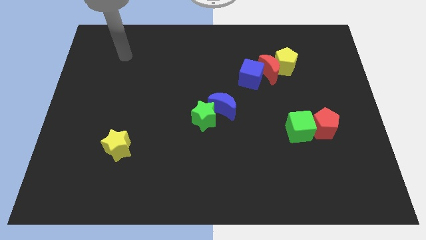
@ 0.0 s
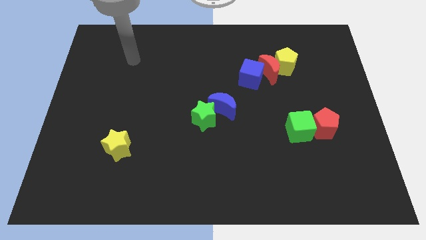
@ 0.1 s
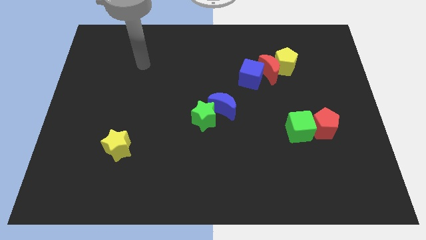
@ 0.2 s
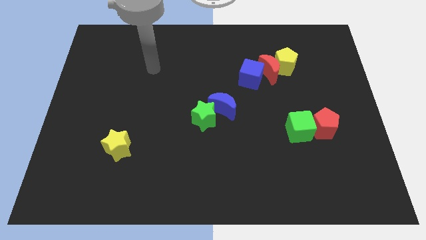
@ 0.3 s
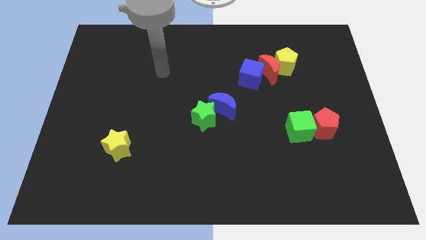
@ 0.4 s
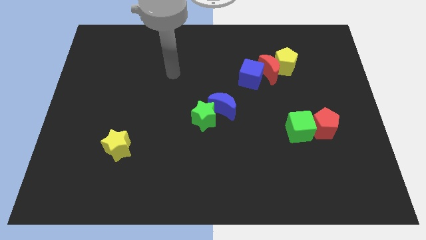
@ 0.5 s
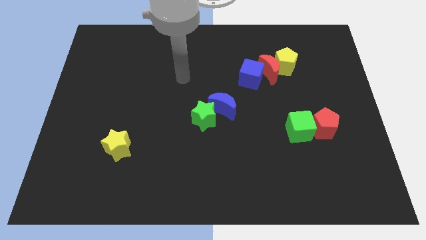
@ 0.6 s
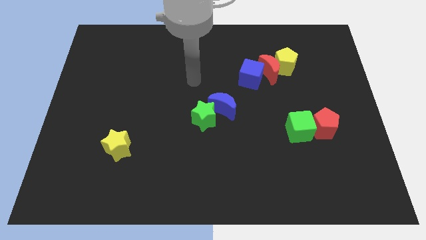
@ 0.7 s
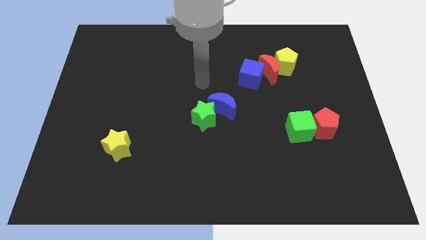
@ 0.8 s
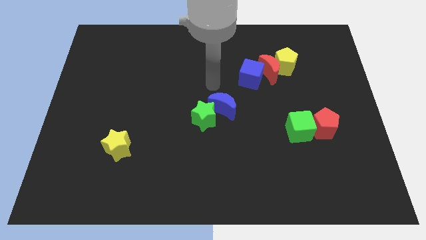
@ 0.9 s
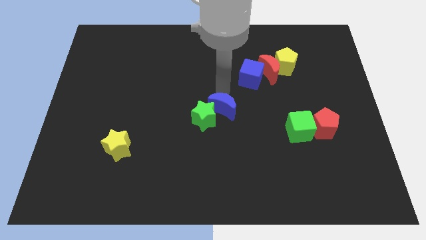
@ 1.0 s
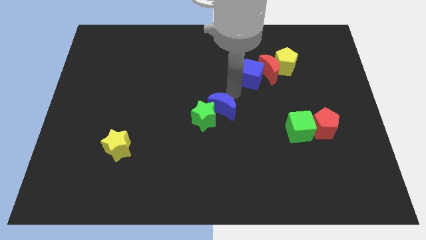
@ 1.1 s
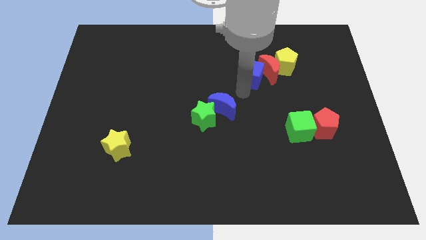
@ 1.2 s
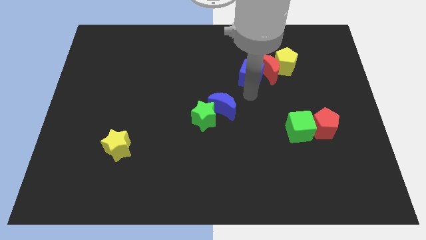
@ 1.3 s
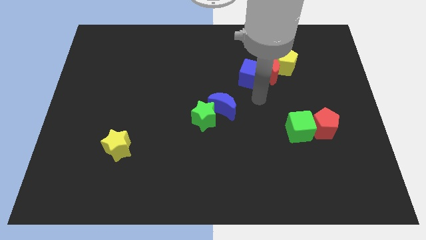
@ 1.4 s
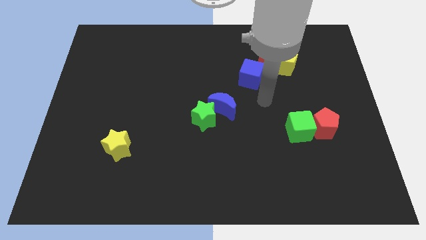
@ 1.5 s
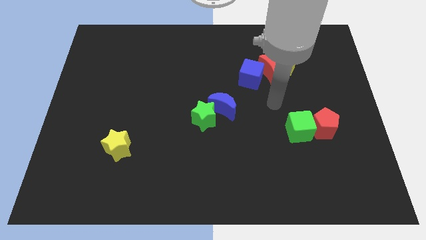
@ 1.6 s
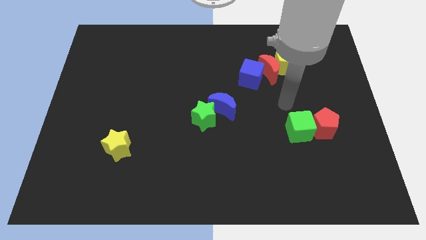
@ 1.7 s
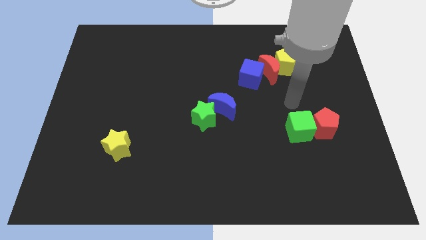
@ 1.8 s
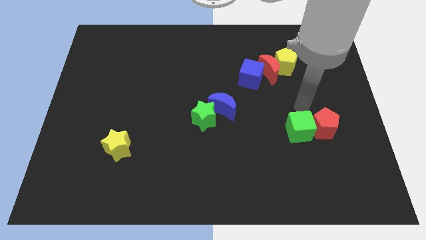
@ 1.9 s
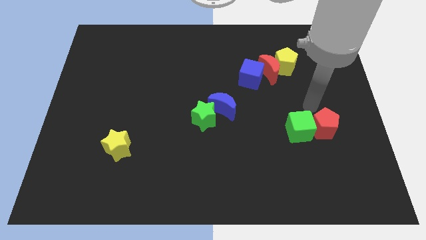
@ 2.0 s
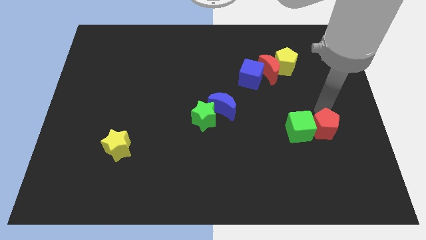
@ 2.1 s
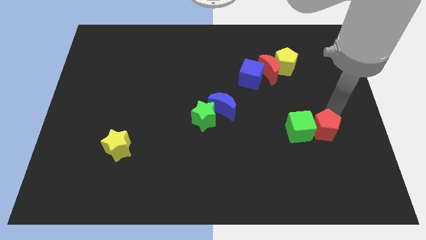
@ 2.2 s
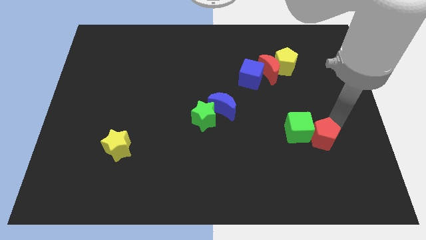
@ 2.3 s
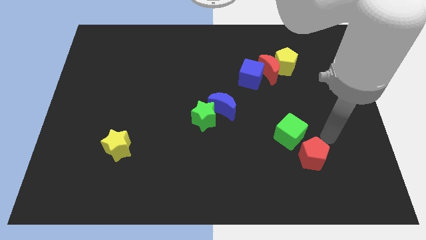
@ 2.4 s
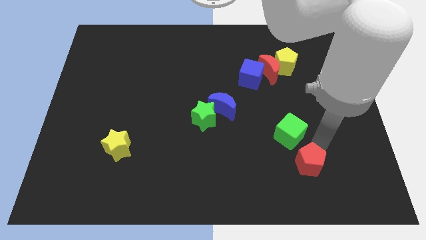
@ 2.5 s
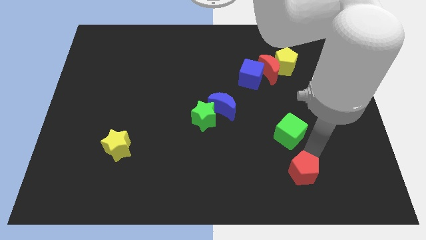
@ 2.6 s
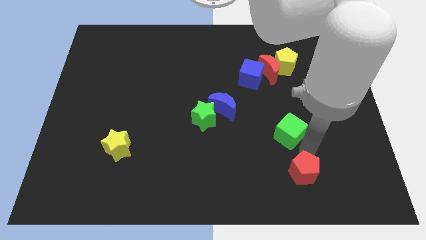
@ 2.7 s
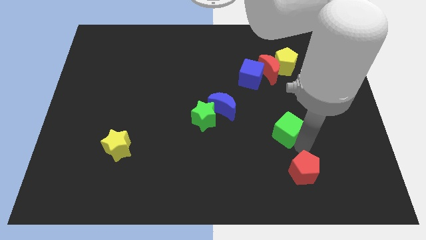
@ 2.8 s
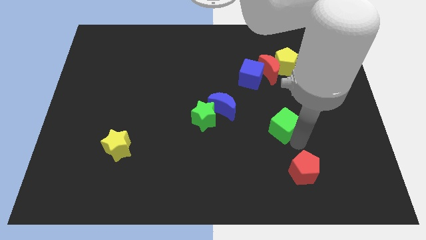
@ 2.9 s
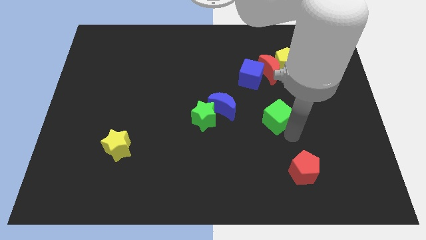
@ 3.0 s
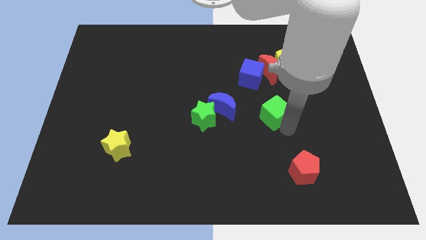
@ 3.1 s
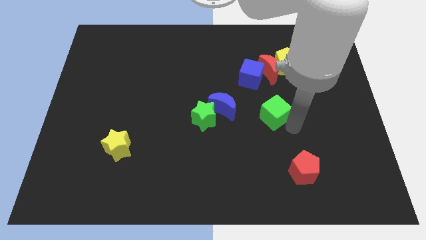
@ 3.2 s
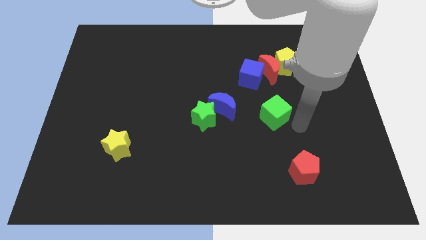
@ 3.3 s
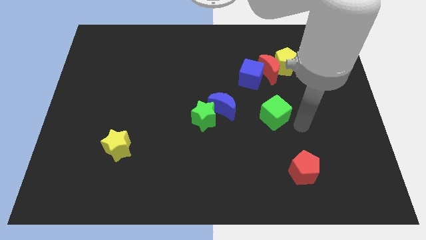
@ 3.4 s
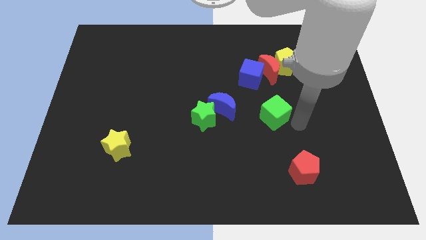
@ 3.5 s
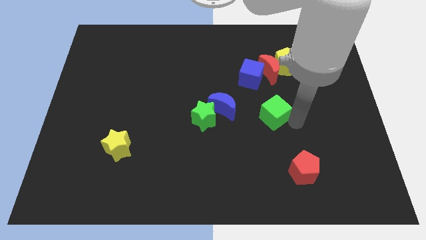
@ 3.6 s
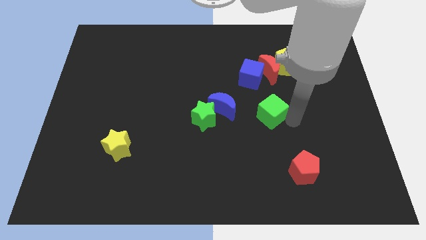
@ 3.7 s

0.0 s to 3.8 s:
slightly slide the green cube upwards and to the left

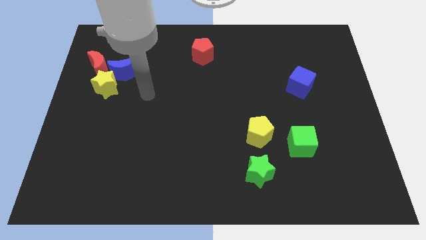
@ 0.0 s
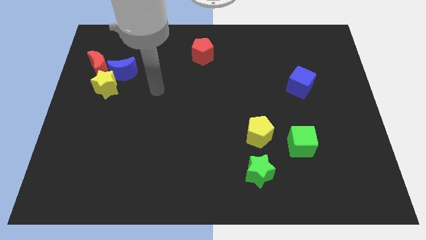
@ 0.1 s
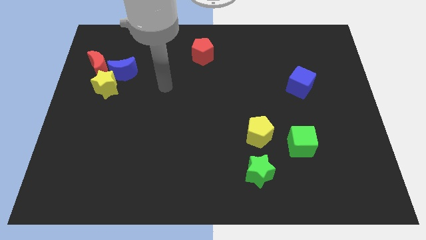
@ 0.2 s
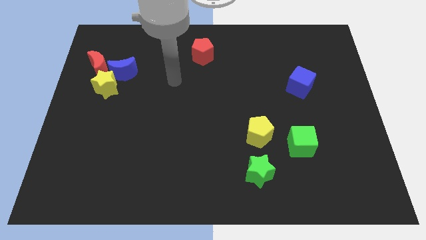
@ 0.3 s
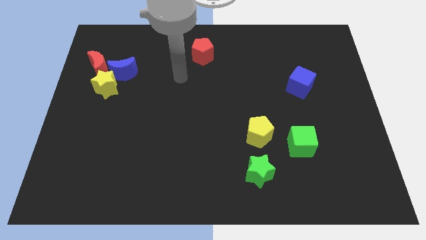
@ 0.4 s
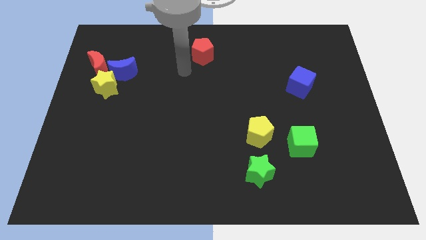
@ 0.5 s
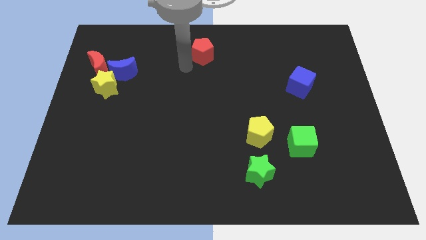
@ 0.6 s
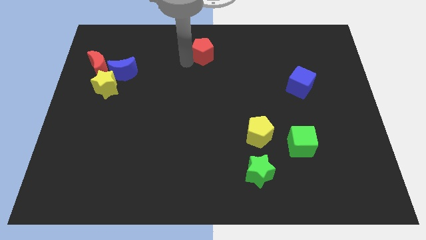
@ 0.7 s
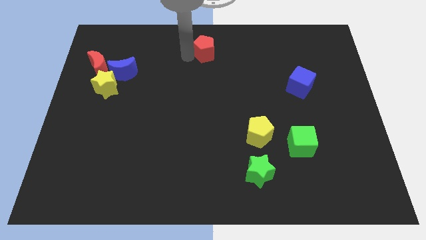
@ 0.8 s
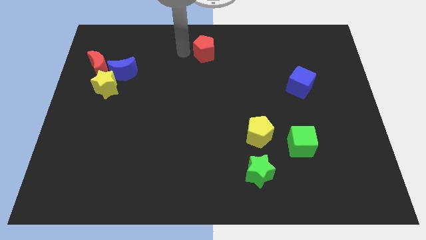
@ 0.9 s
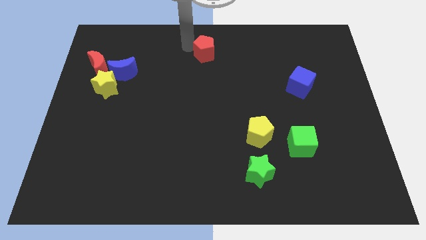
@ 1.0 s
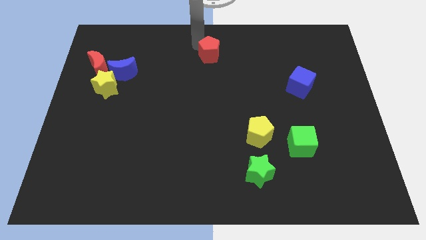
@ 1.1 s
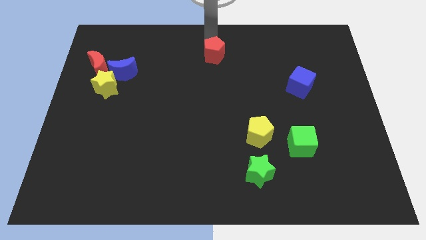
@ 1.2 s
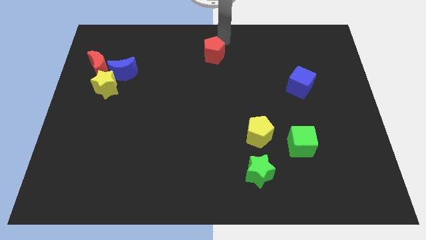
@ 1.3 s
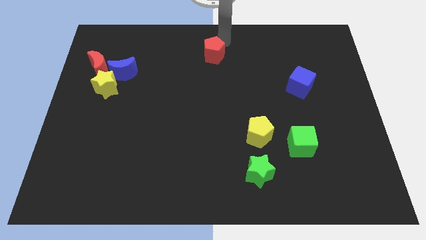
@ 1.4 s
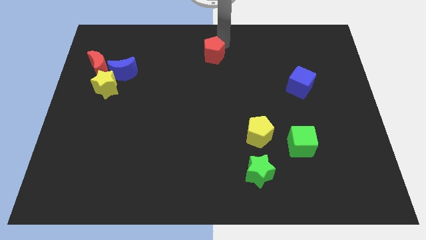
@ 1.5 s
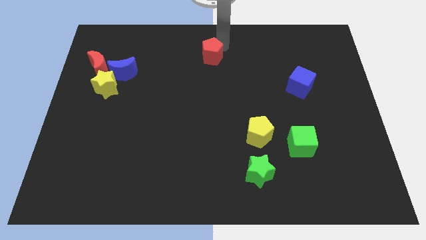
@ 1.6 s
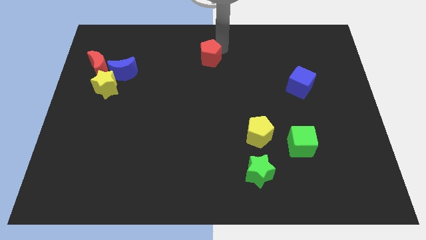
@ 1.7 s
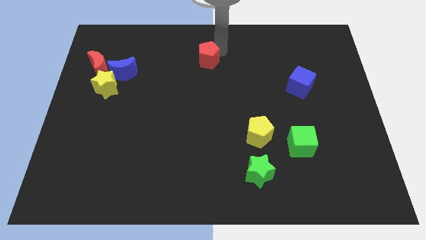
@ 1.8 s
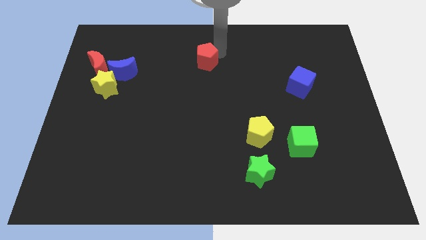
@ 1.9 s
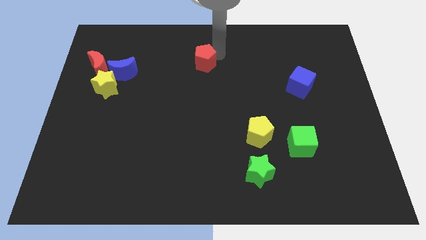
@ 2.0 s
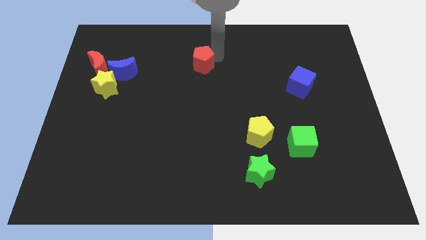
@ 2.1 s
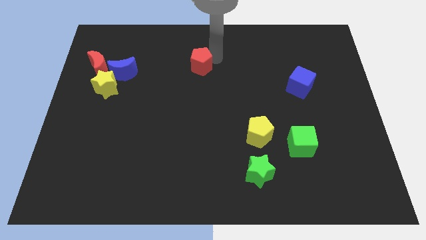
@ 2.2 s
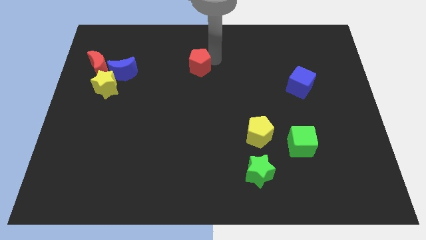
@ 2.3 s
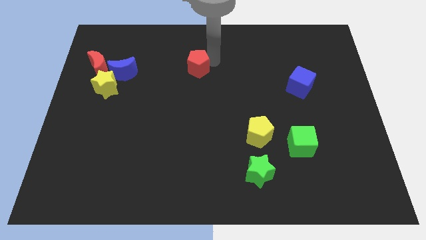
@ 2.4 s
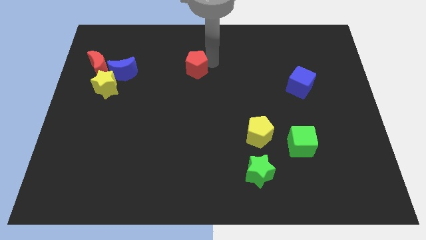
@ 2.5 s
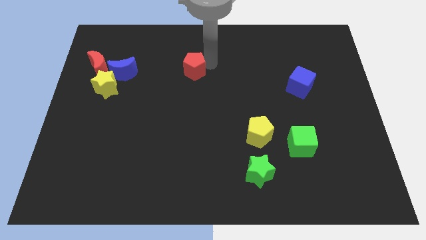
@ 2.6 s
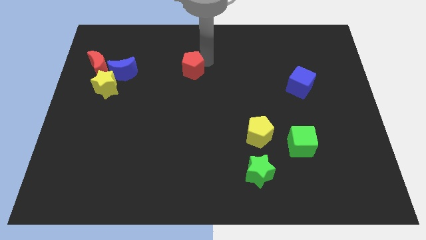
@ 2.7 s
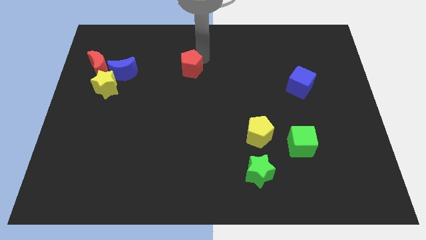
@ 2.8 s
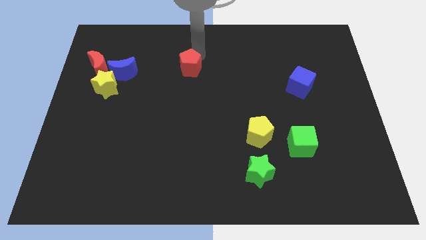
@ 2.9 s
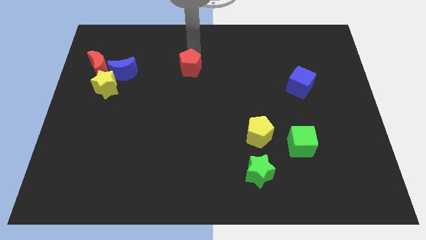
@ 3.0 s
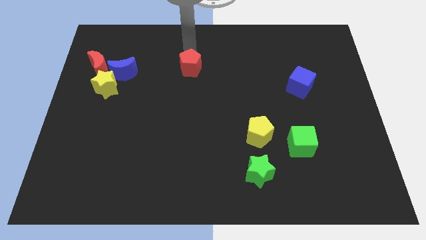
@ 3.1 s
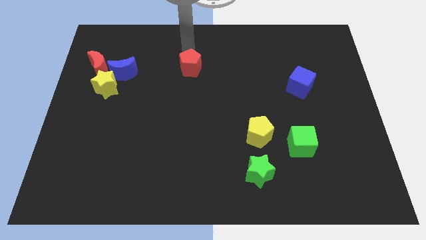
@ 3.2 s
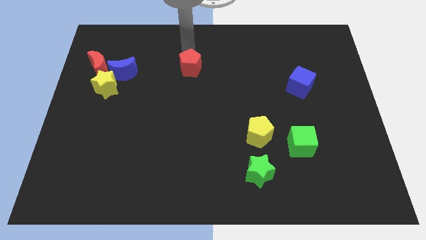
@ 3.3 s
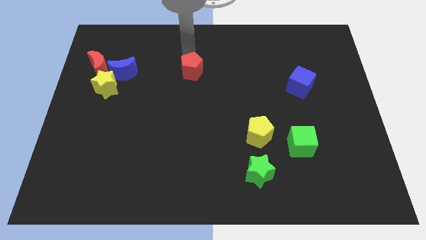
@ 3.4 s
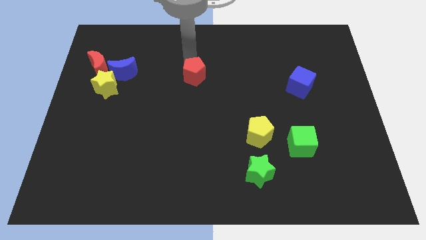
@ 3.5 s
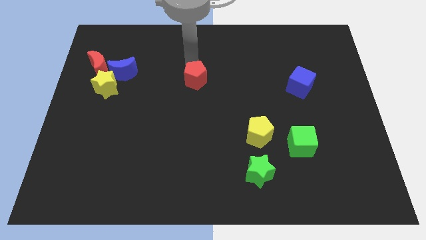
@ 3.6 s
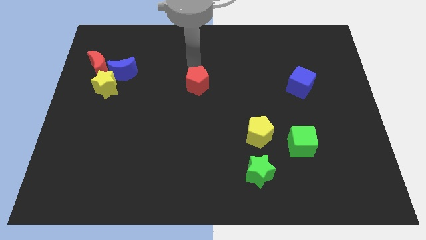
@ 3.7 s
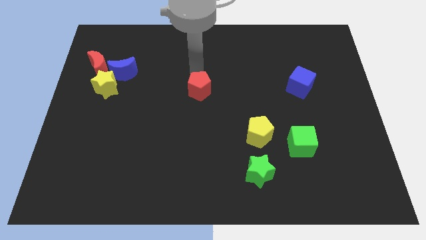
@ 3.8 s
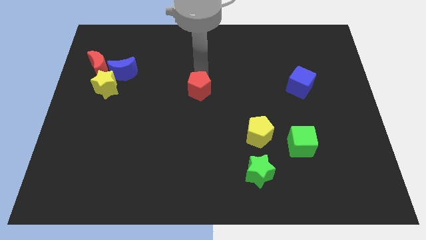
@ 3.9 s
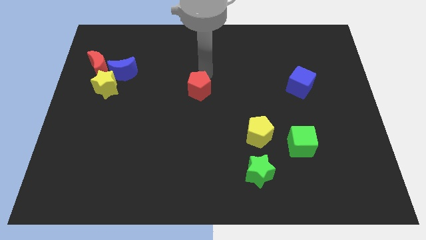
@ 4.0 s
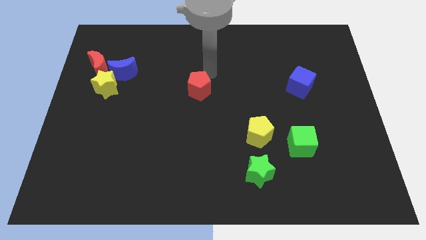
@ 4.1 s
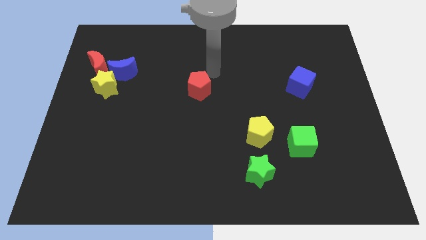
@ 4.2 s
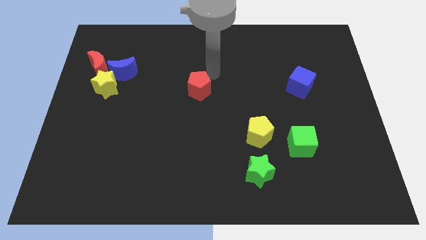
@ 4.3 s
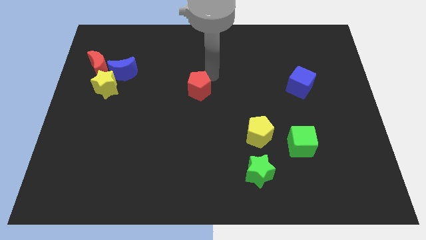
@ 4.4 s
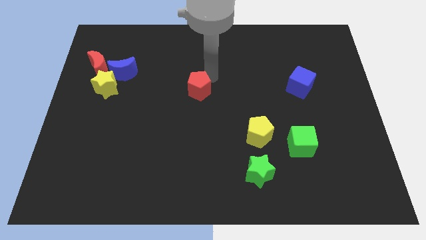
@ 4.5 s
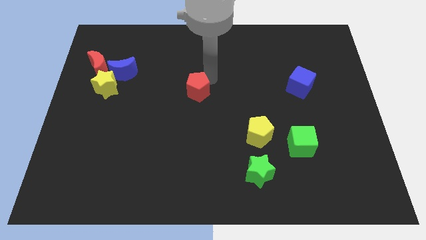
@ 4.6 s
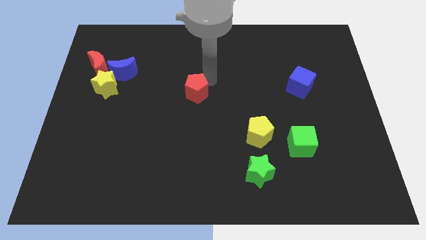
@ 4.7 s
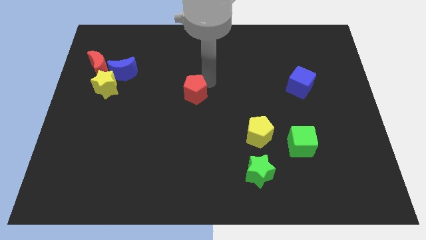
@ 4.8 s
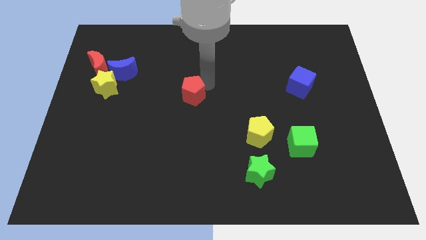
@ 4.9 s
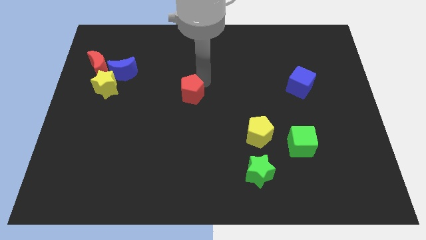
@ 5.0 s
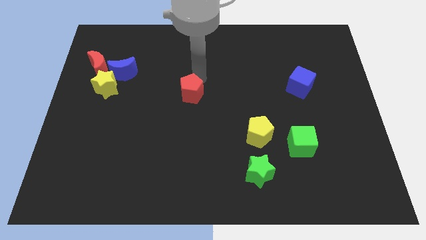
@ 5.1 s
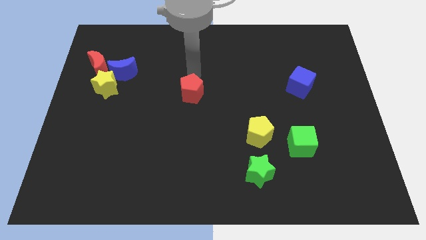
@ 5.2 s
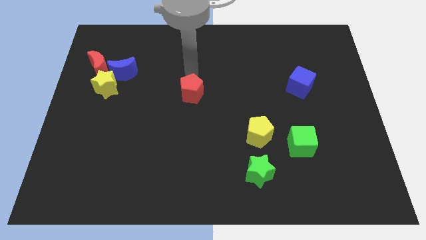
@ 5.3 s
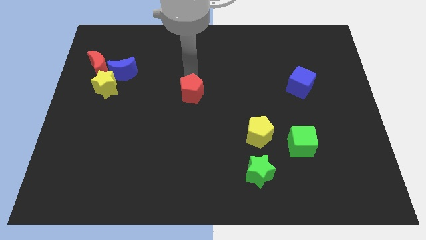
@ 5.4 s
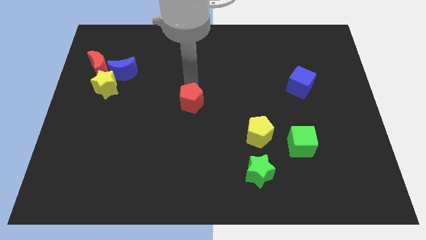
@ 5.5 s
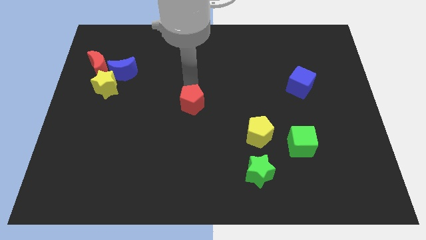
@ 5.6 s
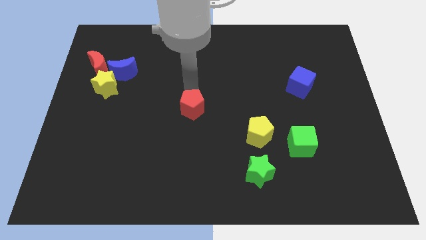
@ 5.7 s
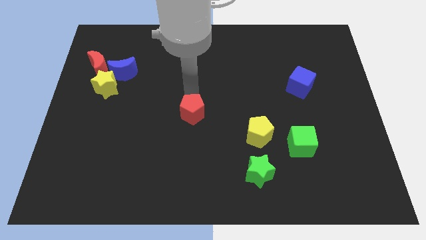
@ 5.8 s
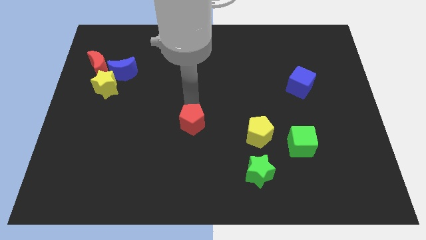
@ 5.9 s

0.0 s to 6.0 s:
push the red pentagon downwards
